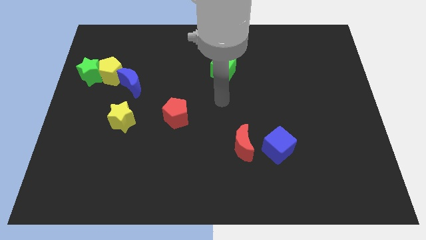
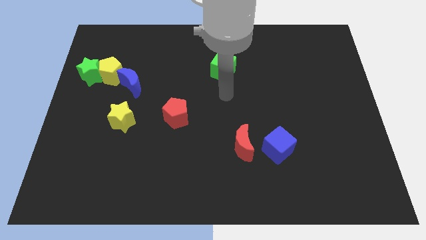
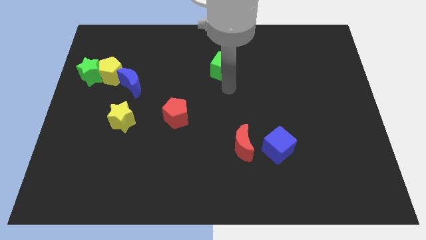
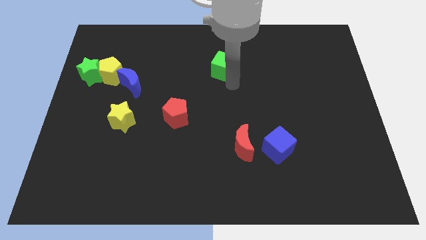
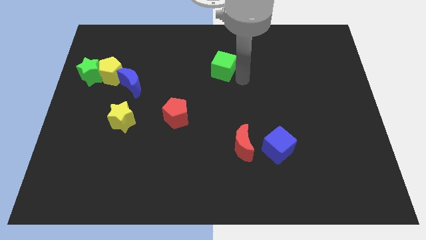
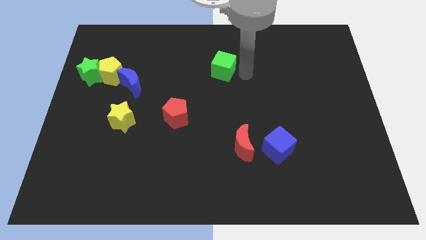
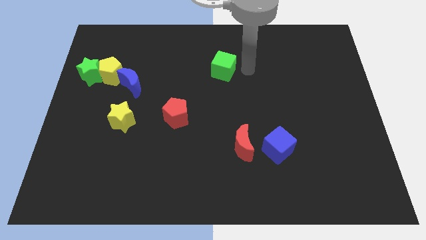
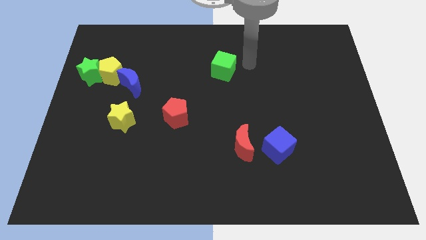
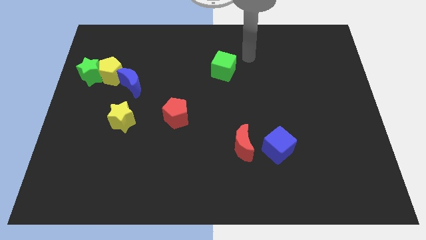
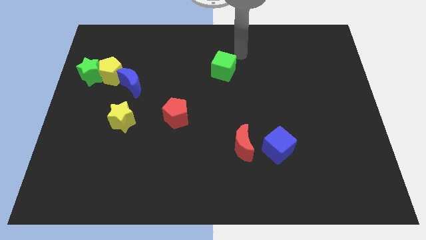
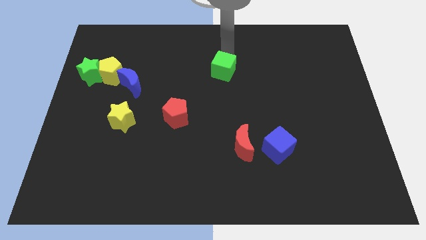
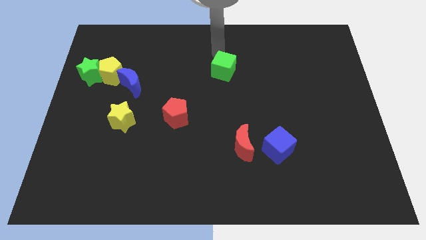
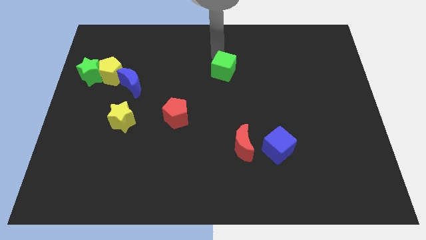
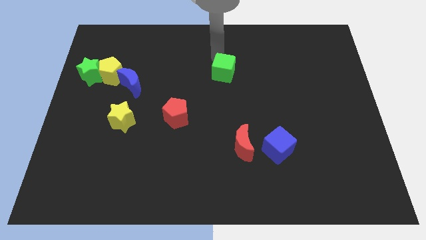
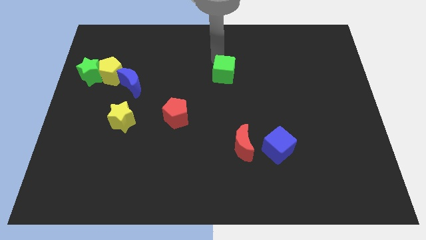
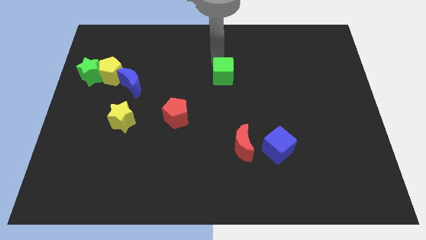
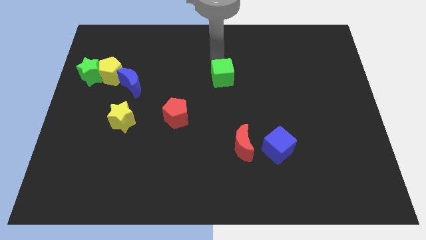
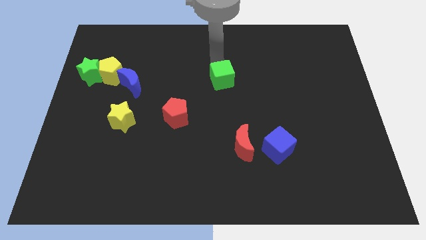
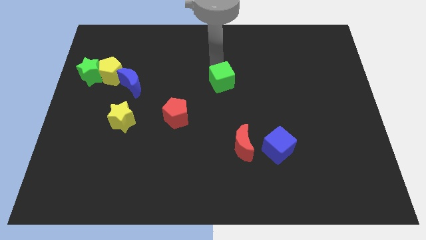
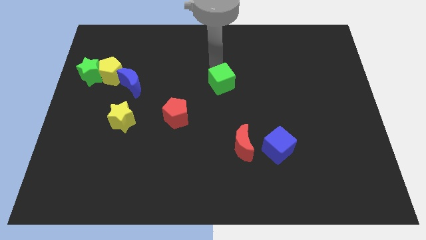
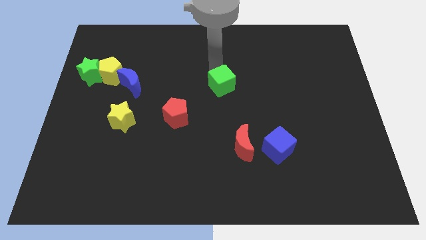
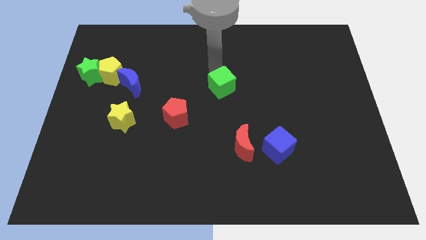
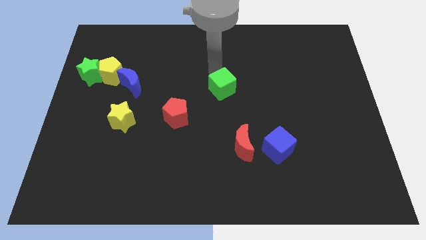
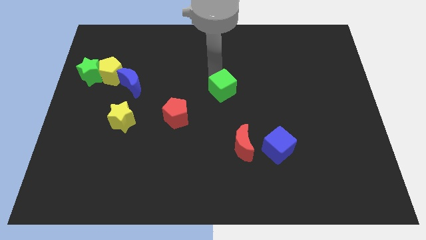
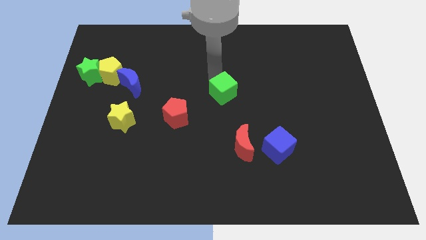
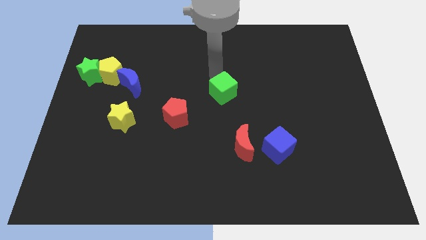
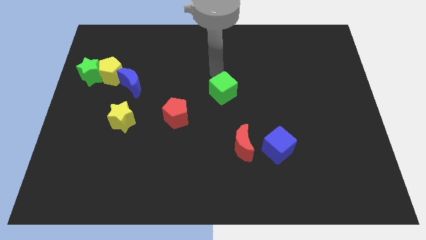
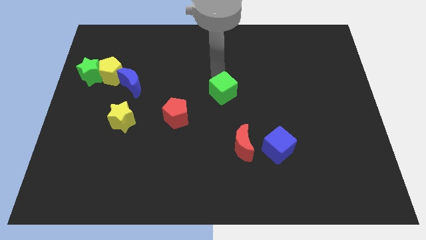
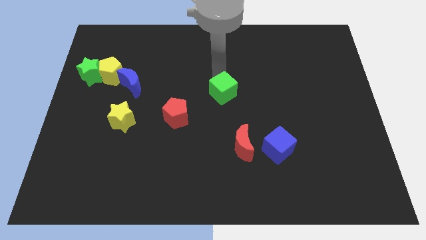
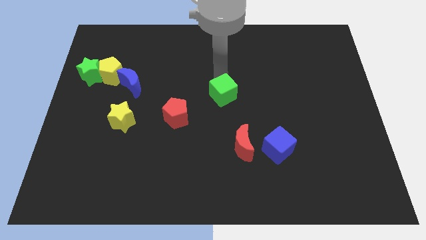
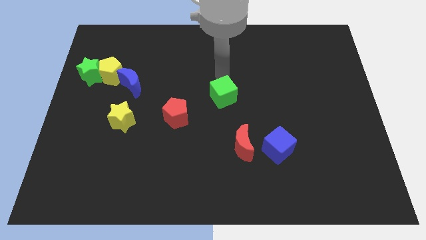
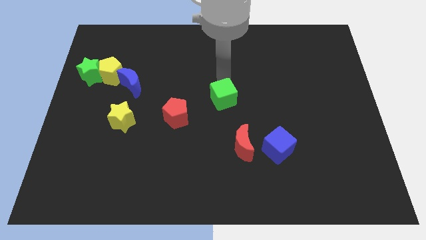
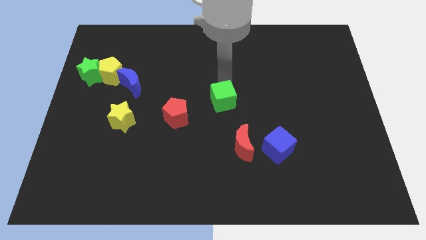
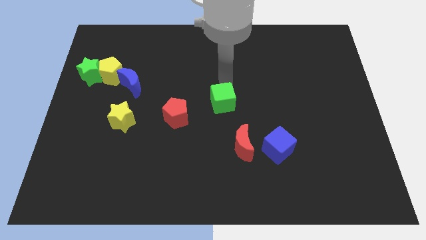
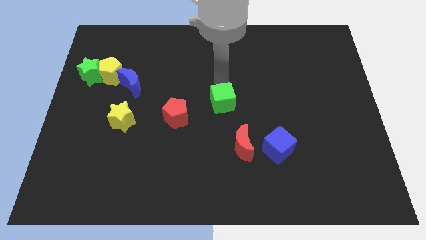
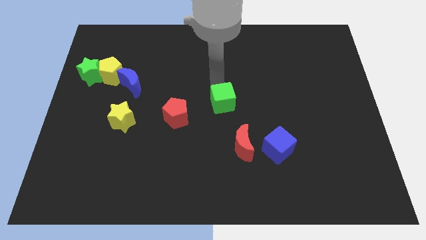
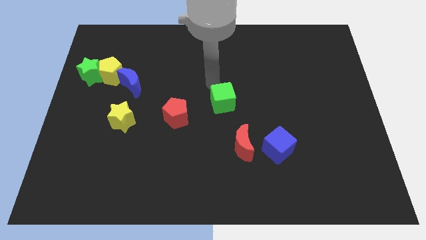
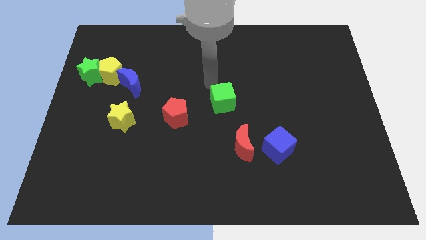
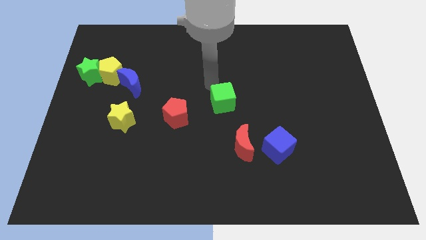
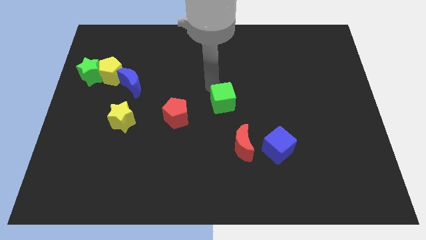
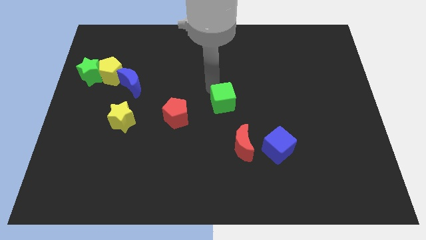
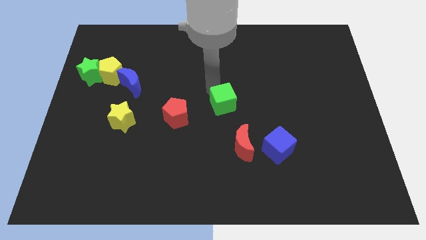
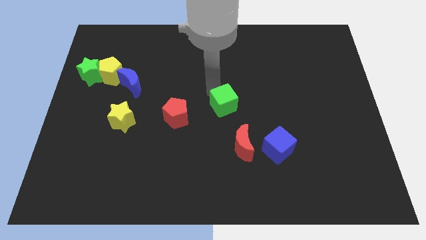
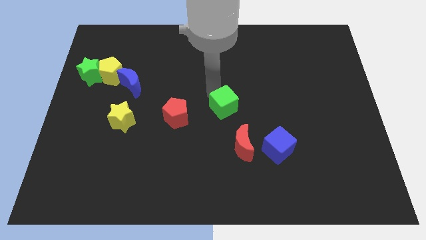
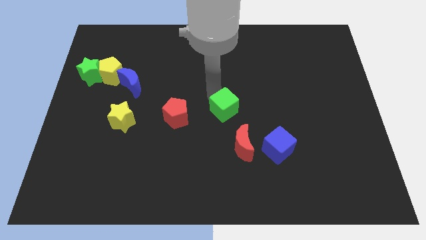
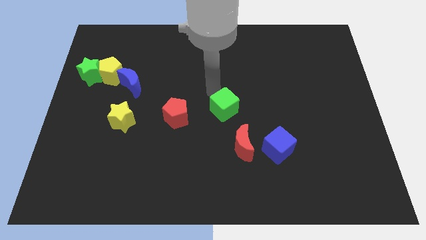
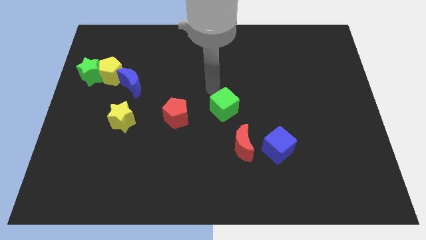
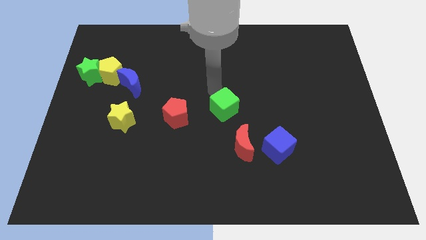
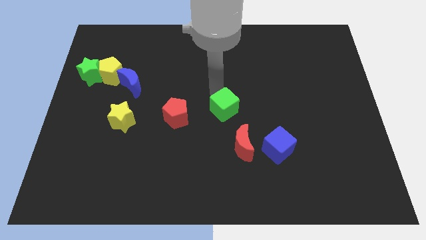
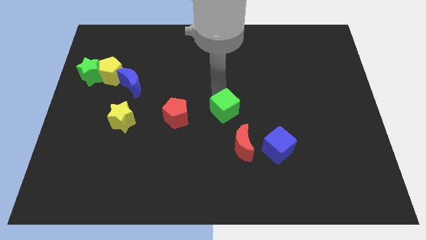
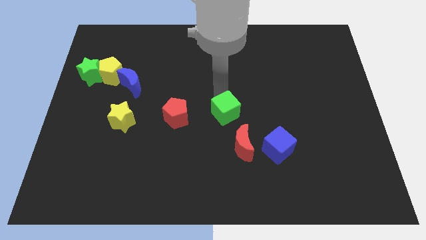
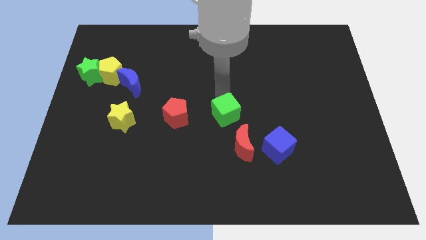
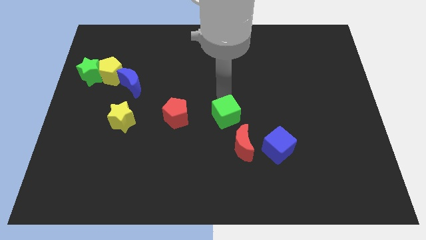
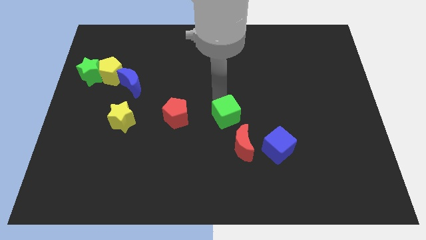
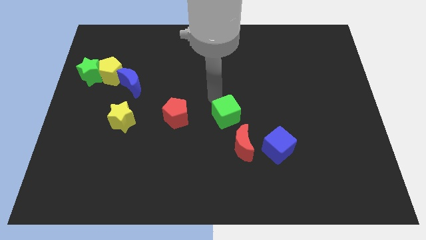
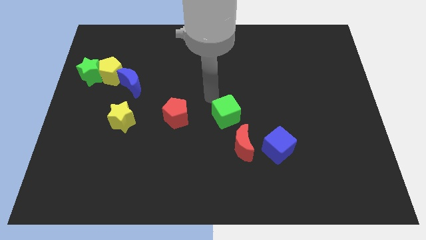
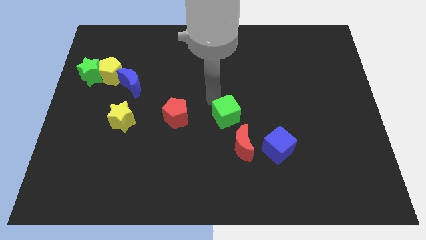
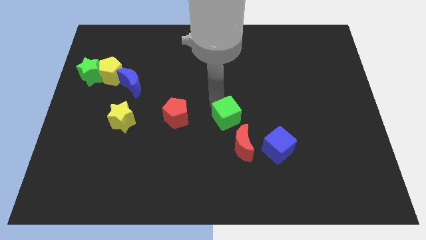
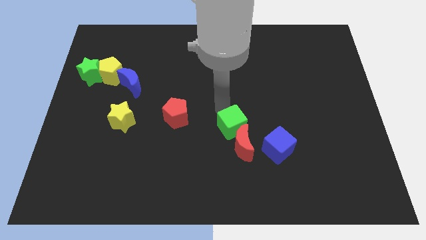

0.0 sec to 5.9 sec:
slide the green cube next to the red moon

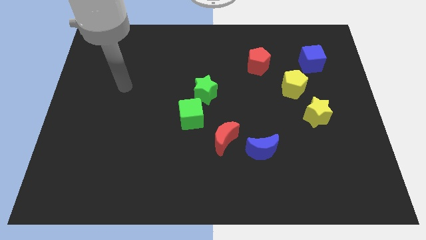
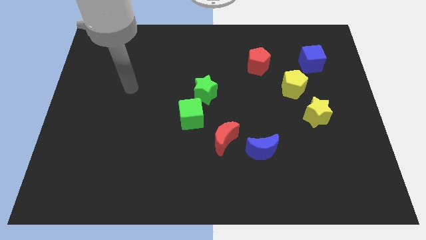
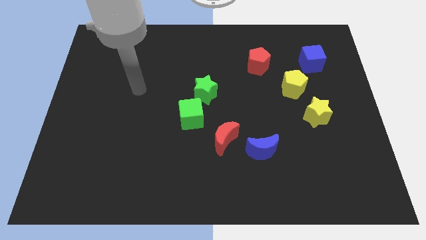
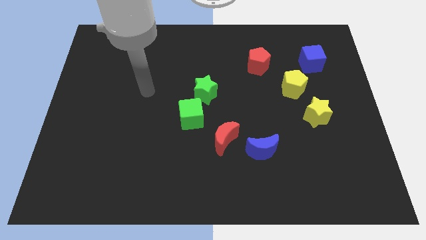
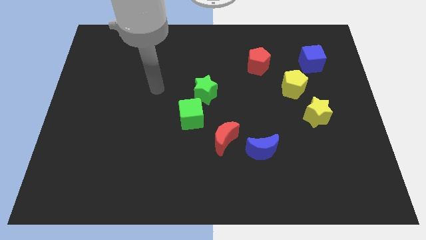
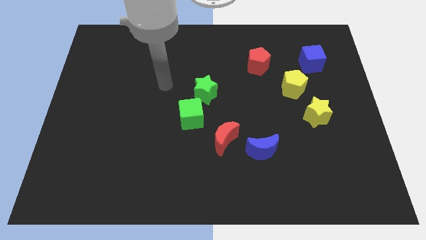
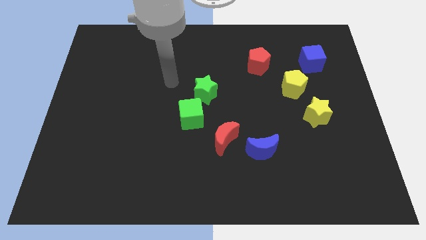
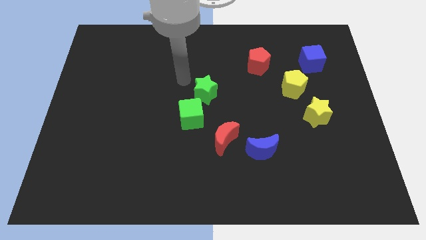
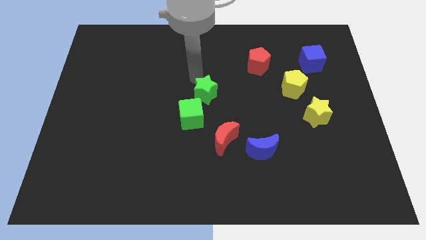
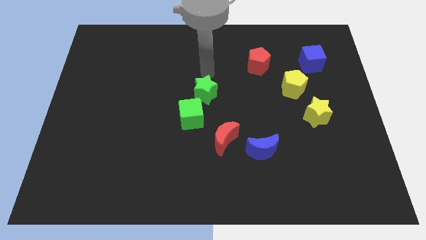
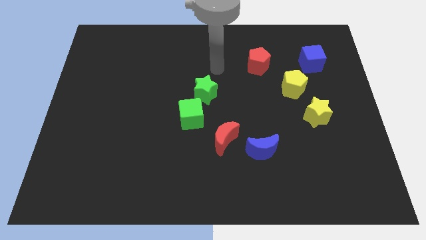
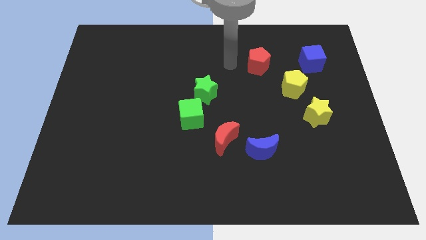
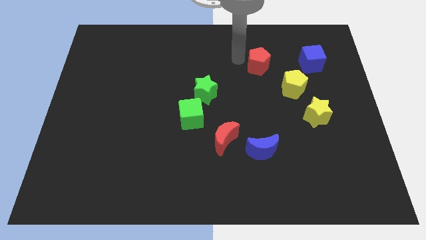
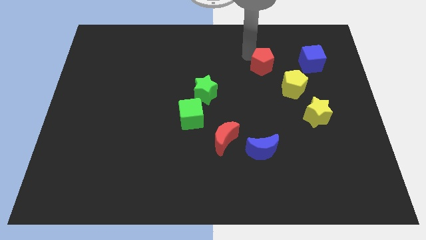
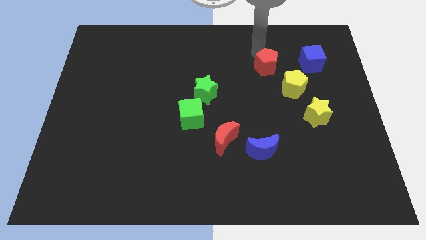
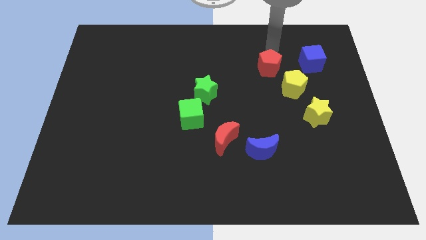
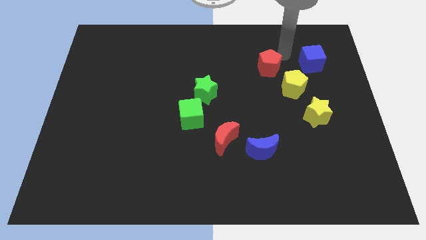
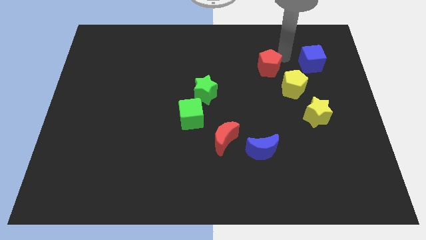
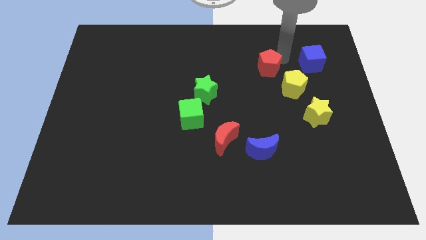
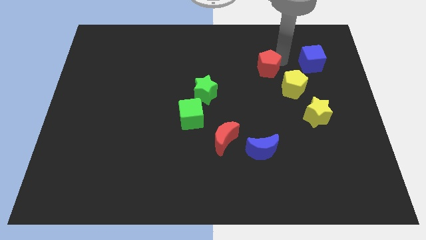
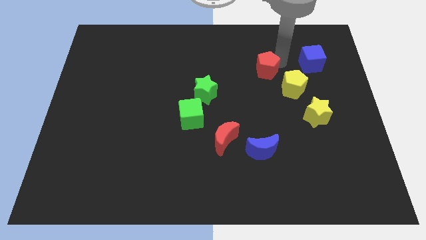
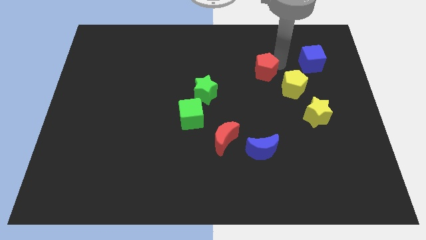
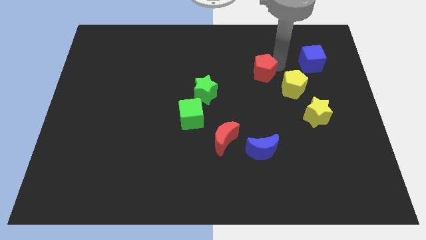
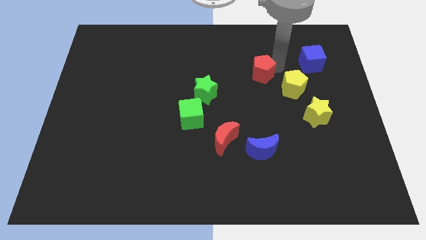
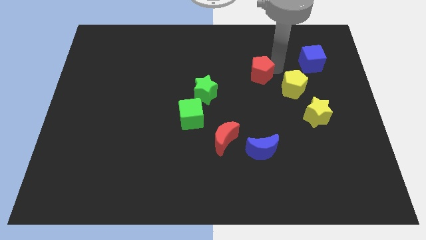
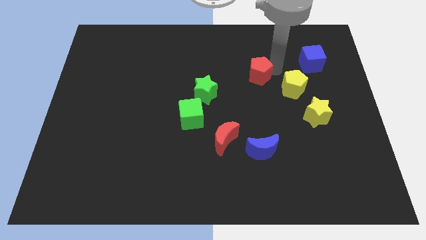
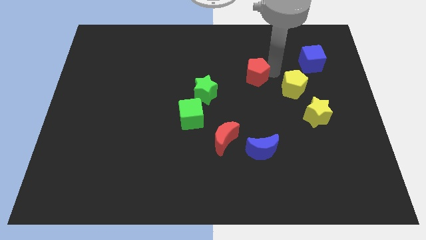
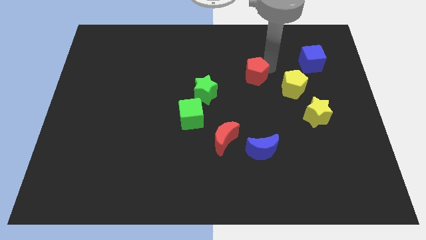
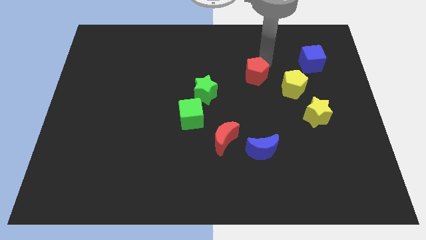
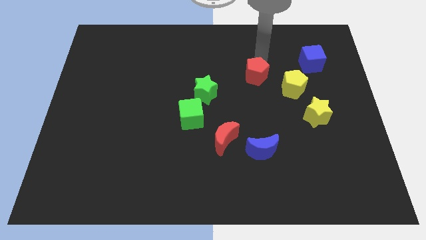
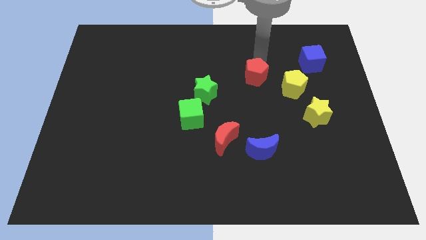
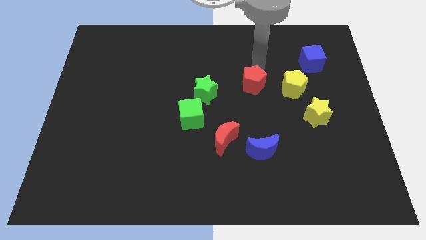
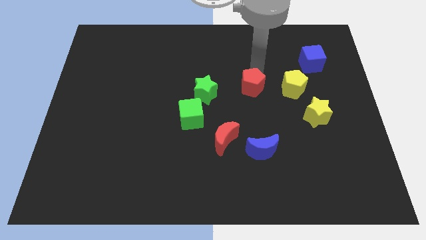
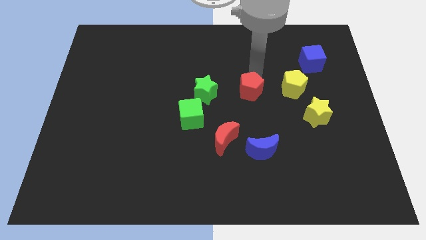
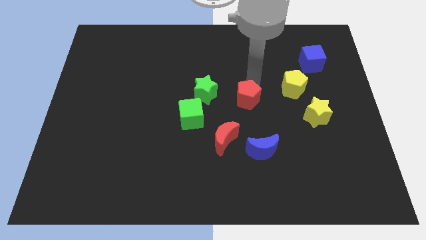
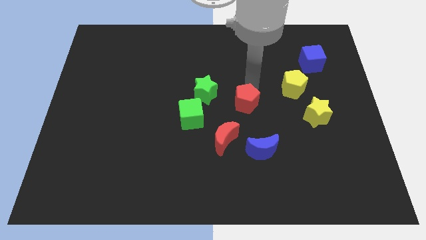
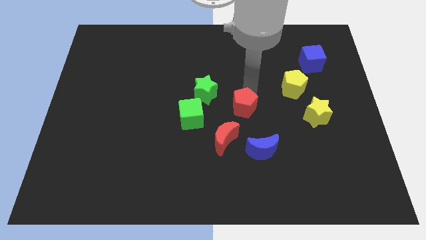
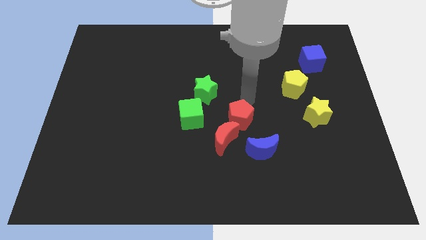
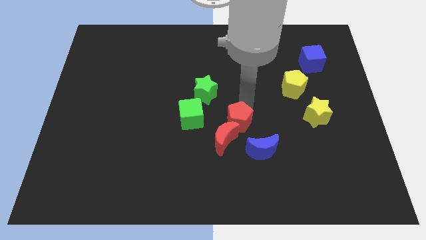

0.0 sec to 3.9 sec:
slide the red pentagon next to the red moon
